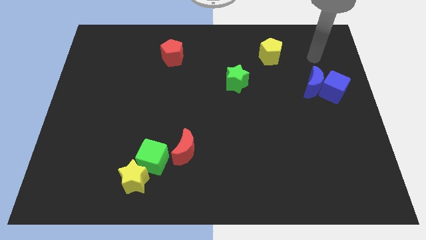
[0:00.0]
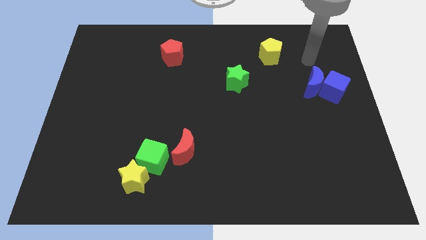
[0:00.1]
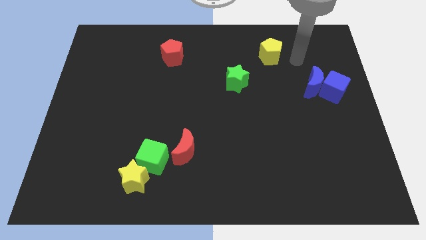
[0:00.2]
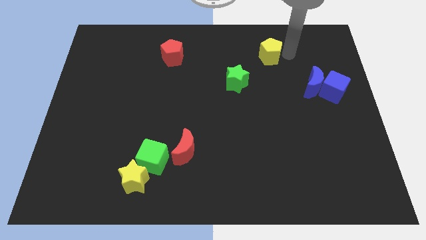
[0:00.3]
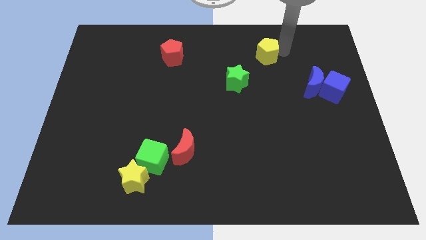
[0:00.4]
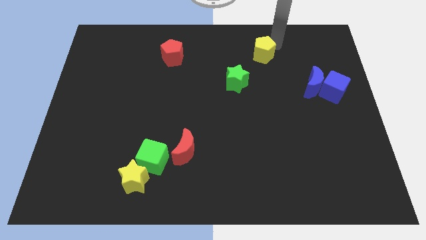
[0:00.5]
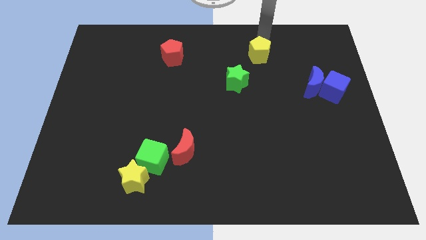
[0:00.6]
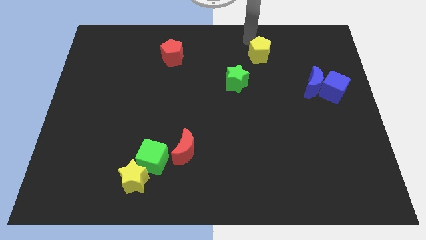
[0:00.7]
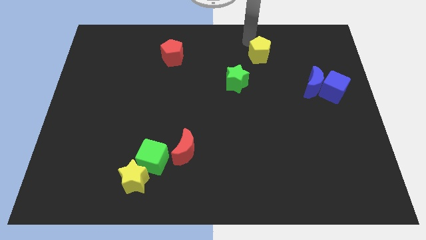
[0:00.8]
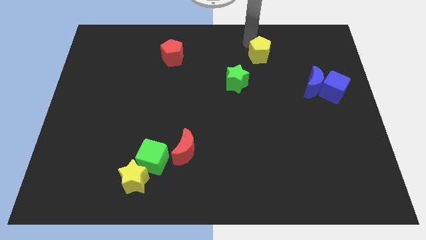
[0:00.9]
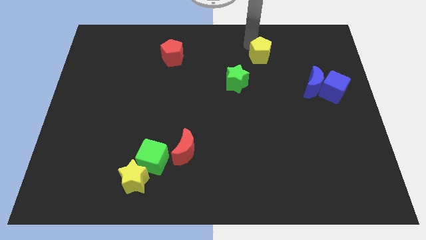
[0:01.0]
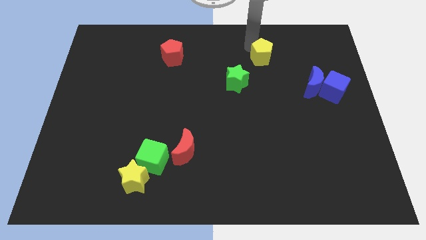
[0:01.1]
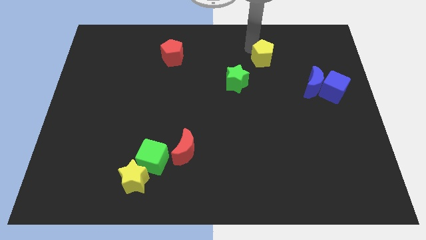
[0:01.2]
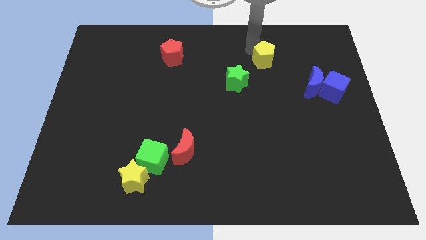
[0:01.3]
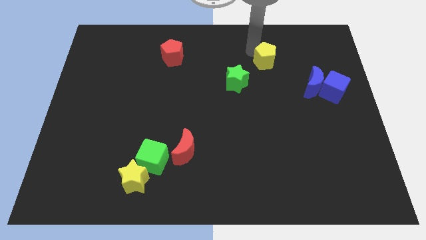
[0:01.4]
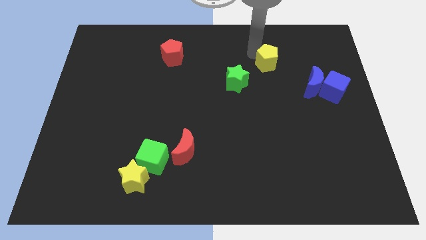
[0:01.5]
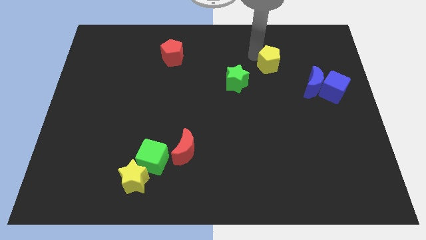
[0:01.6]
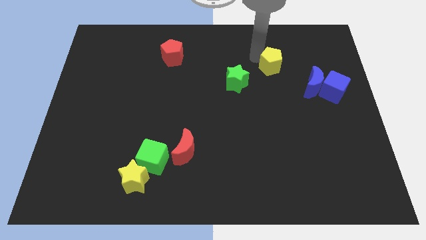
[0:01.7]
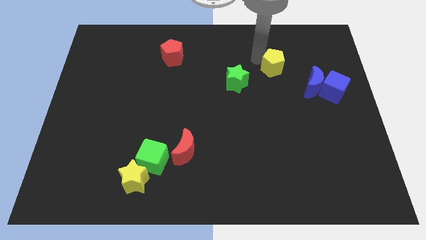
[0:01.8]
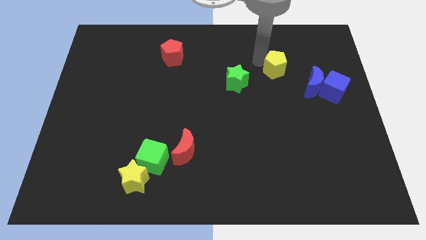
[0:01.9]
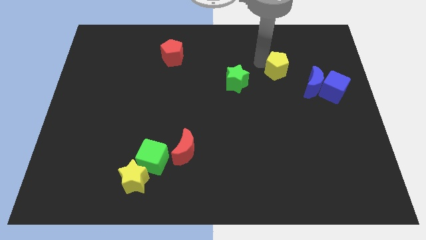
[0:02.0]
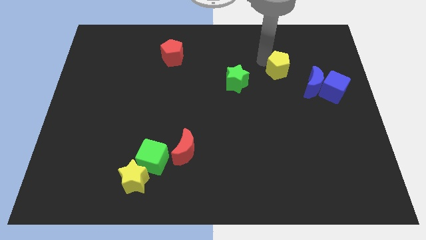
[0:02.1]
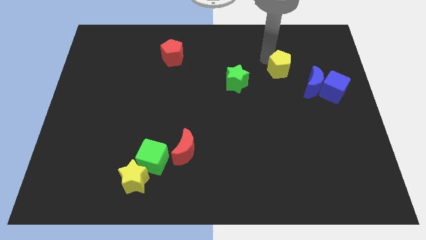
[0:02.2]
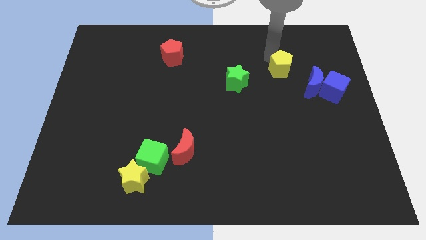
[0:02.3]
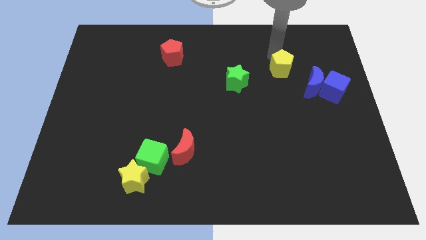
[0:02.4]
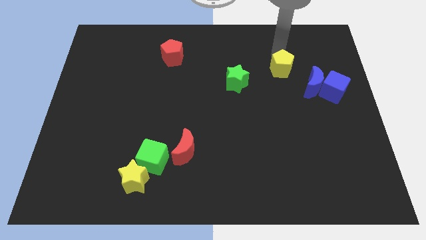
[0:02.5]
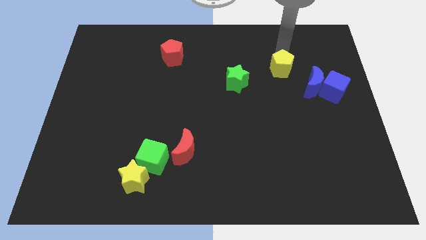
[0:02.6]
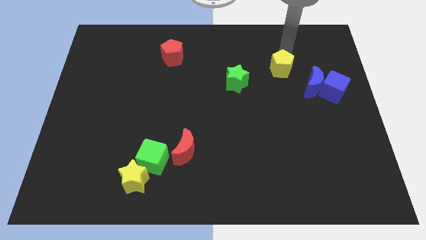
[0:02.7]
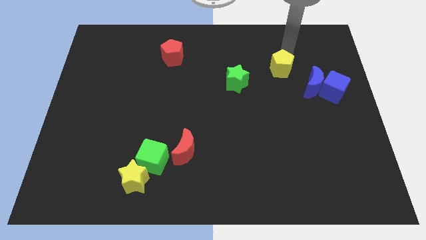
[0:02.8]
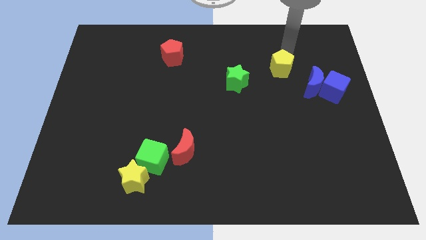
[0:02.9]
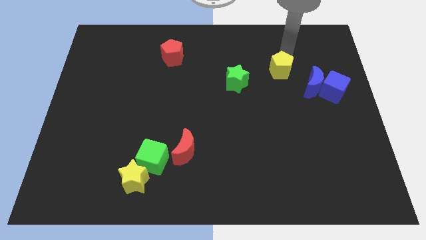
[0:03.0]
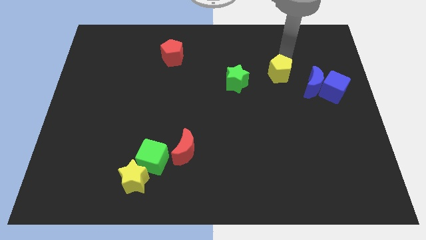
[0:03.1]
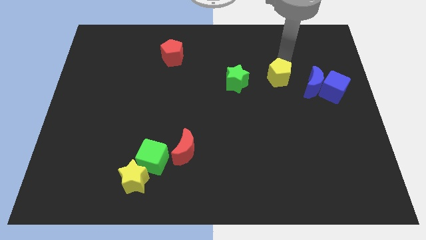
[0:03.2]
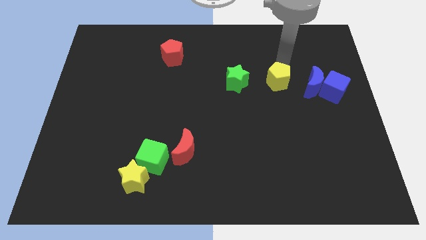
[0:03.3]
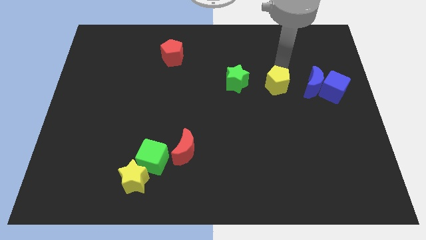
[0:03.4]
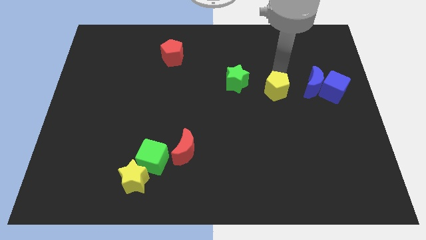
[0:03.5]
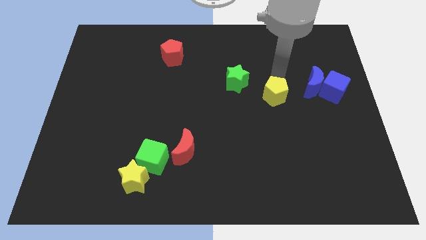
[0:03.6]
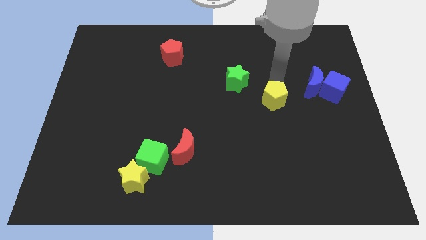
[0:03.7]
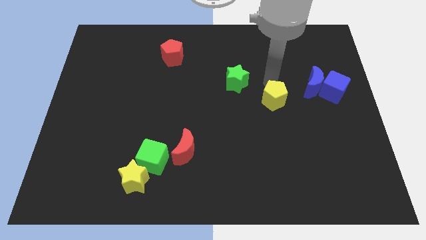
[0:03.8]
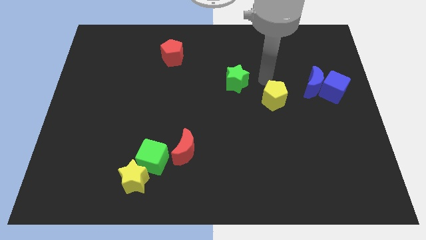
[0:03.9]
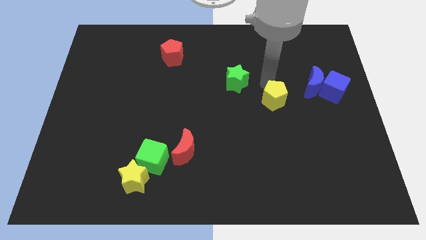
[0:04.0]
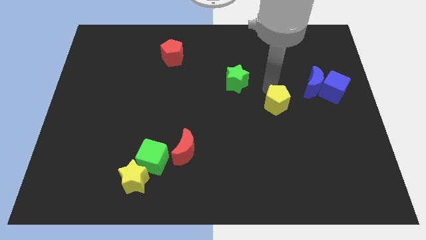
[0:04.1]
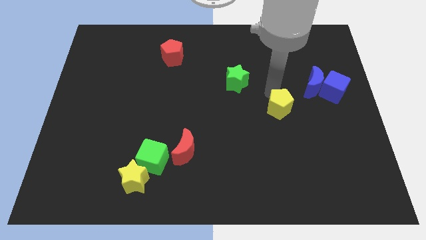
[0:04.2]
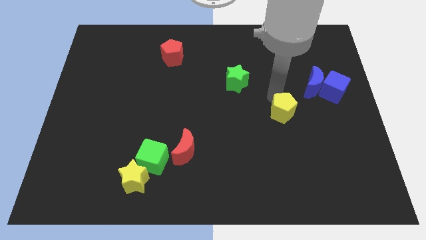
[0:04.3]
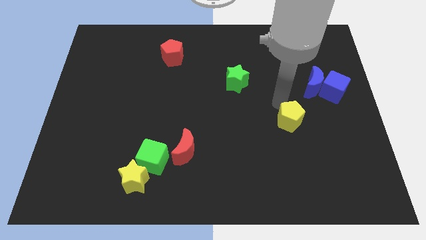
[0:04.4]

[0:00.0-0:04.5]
slide the yellow pentagon down

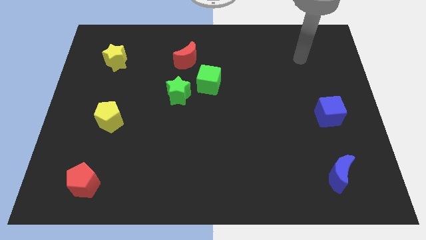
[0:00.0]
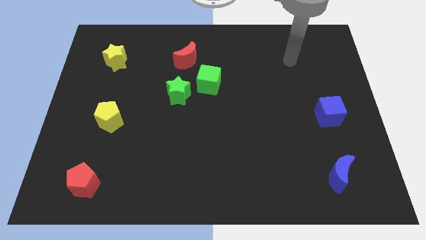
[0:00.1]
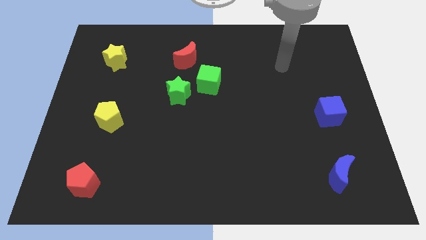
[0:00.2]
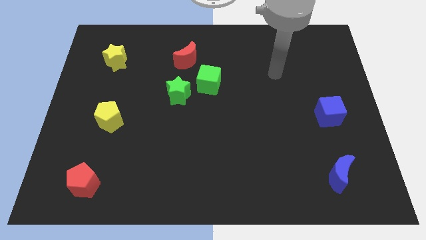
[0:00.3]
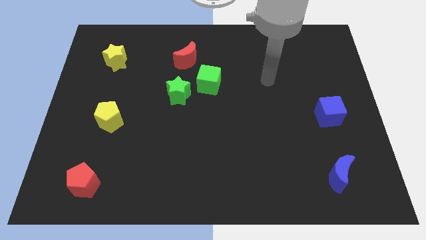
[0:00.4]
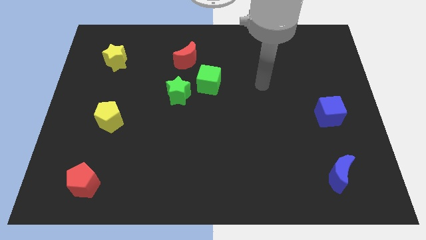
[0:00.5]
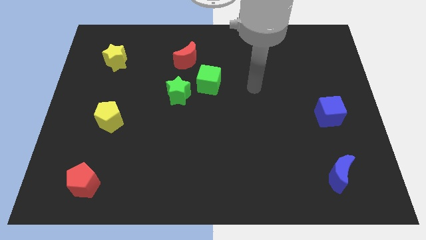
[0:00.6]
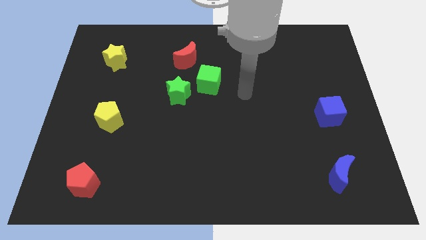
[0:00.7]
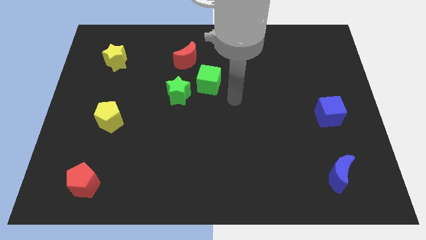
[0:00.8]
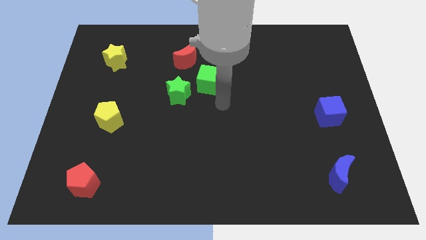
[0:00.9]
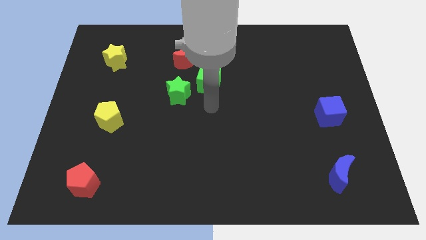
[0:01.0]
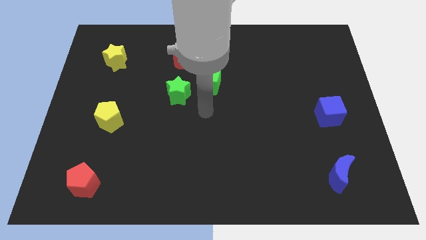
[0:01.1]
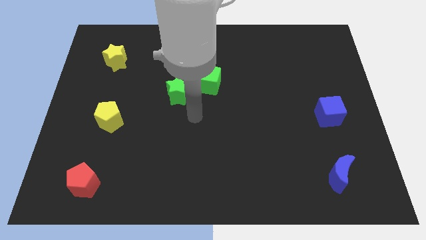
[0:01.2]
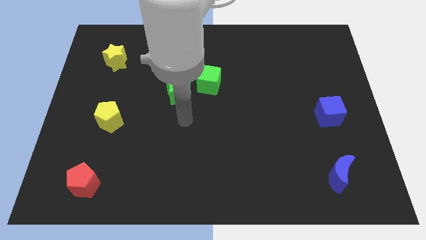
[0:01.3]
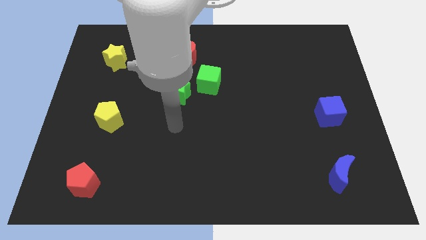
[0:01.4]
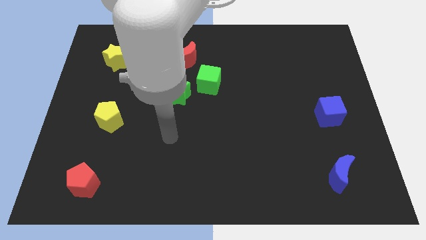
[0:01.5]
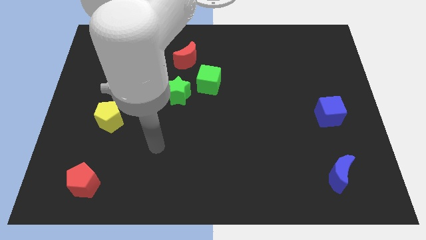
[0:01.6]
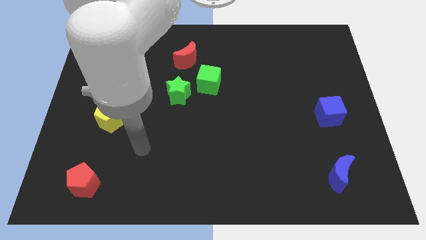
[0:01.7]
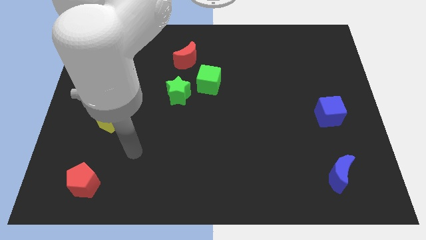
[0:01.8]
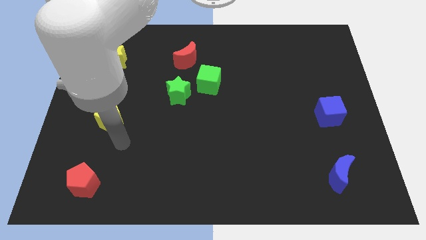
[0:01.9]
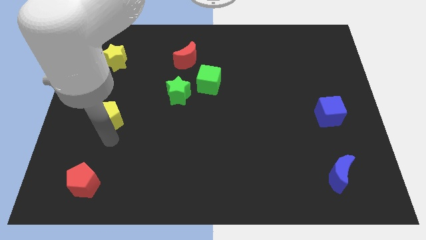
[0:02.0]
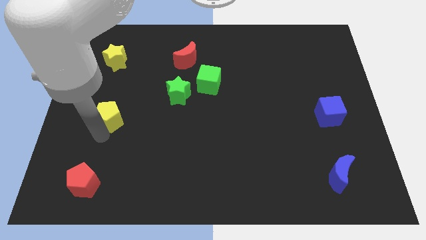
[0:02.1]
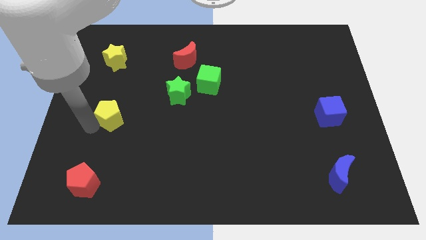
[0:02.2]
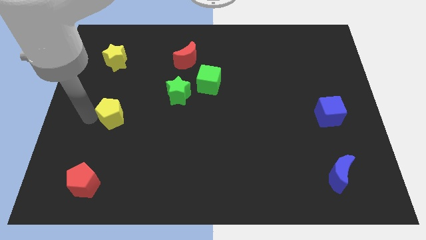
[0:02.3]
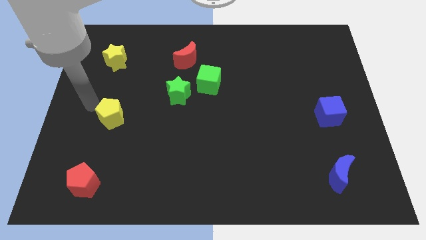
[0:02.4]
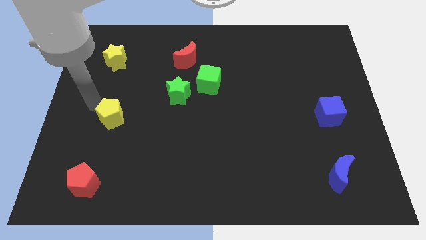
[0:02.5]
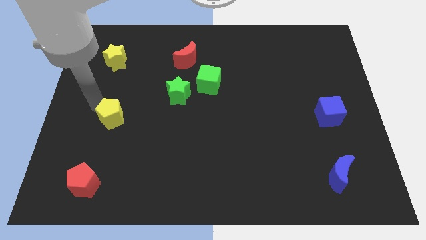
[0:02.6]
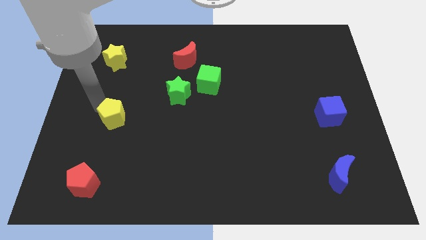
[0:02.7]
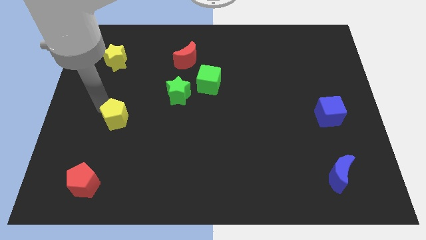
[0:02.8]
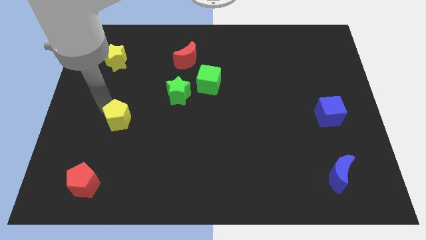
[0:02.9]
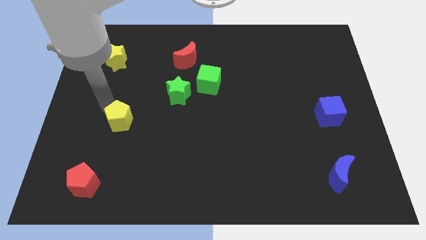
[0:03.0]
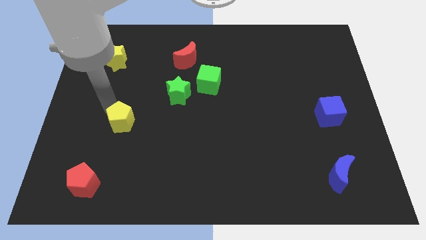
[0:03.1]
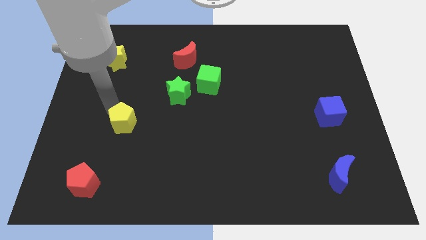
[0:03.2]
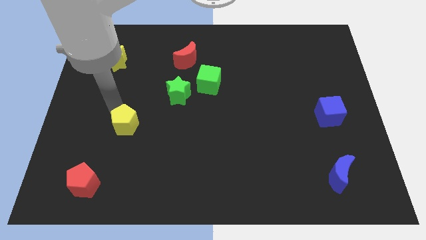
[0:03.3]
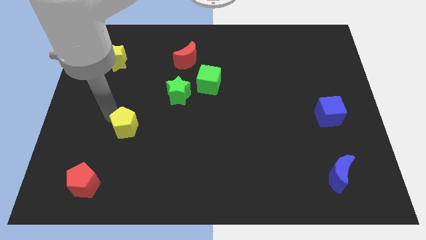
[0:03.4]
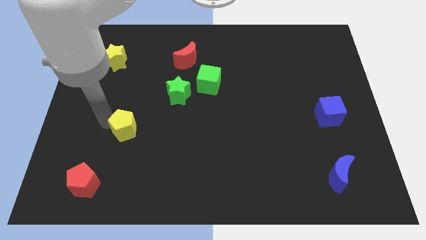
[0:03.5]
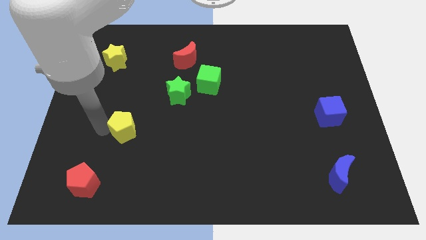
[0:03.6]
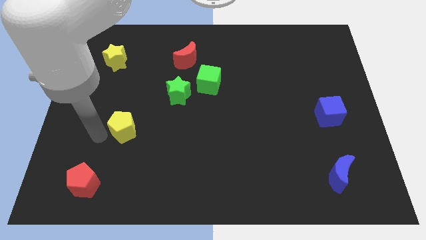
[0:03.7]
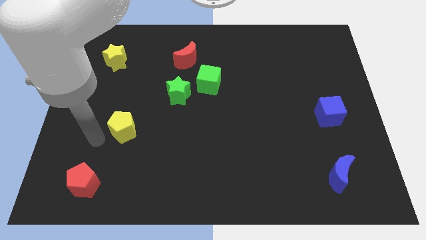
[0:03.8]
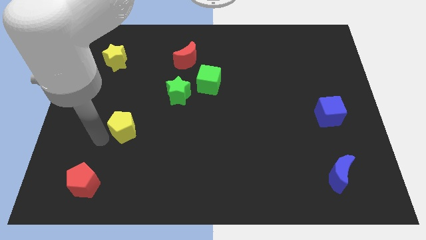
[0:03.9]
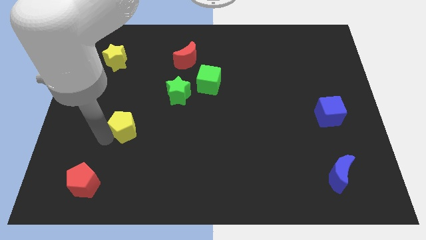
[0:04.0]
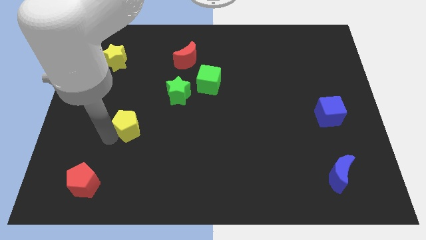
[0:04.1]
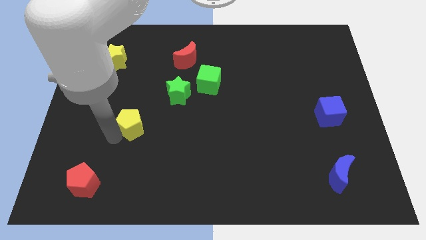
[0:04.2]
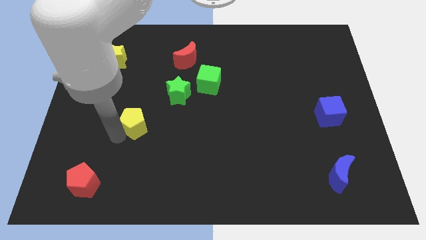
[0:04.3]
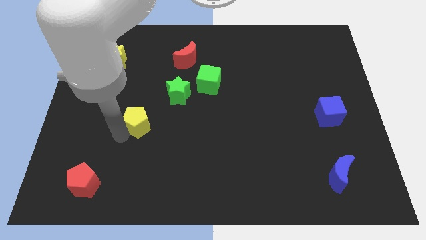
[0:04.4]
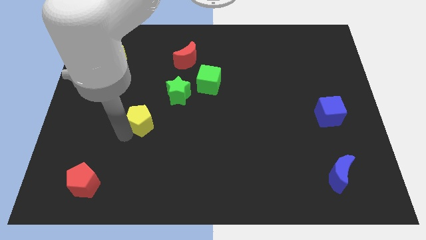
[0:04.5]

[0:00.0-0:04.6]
move the yellow pentagon to the right somewhat
